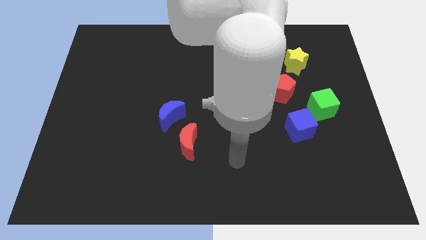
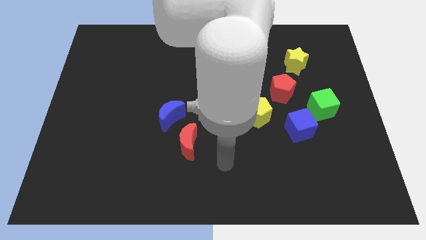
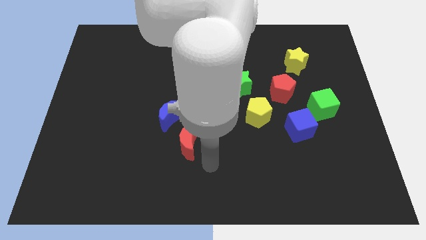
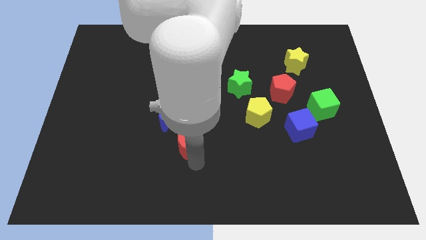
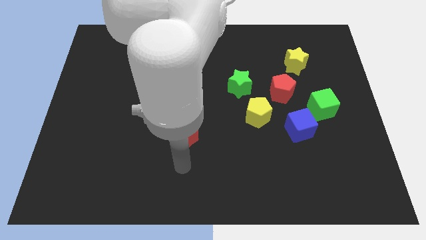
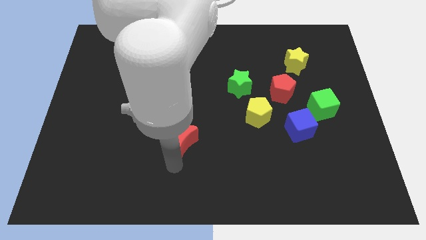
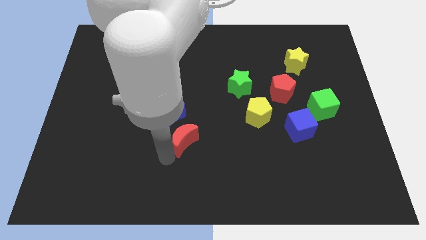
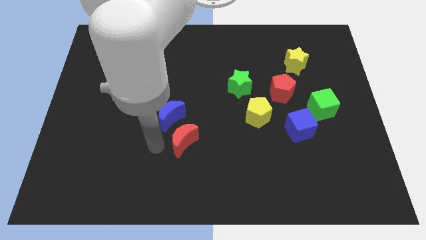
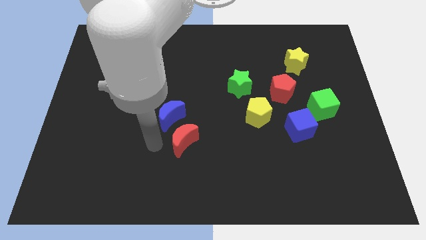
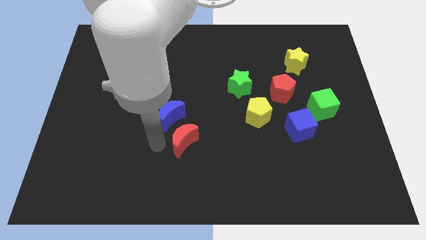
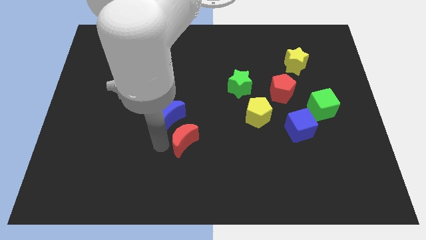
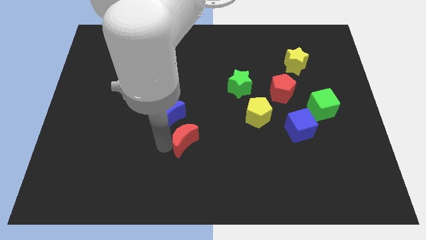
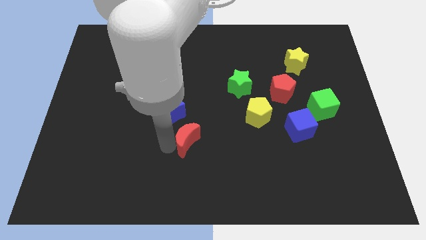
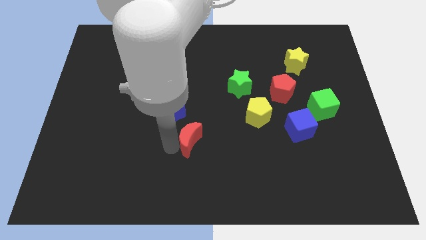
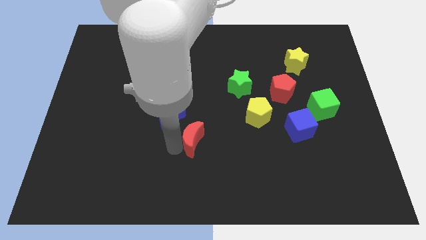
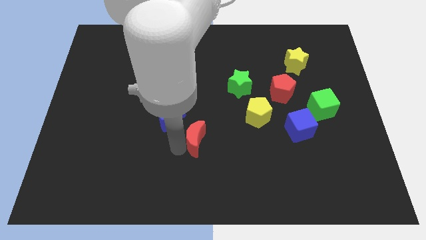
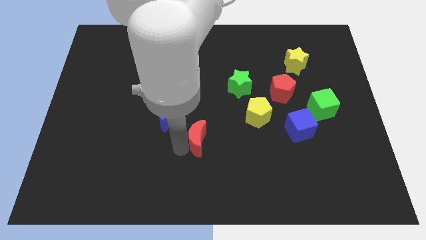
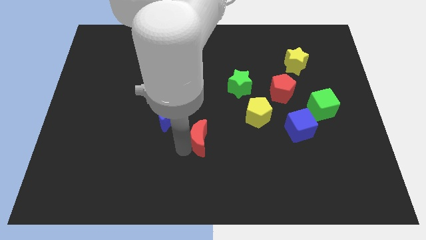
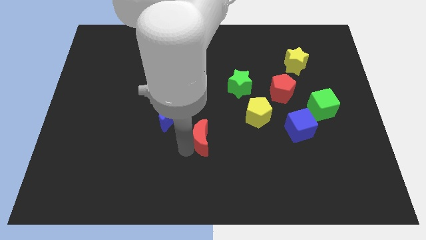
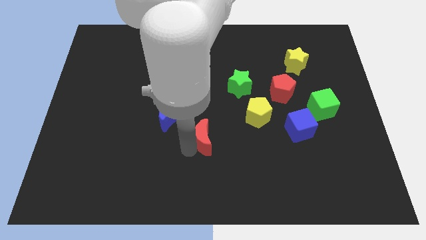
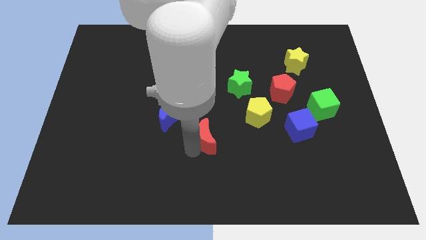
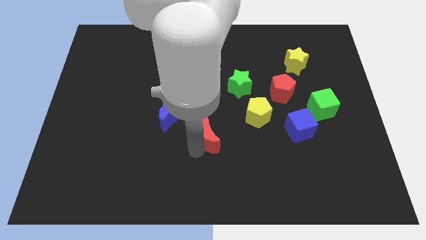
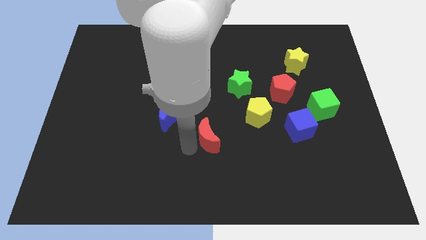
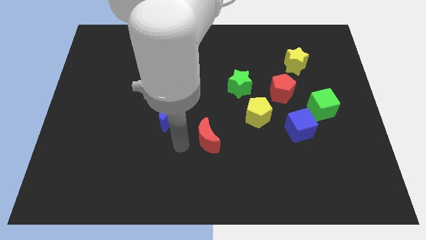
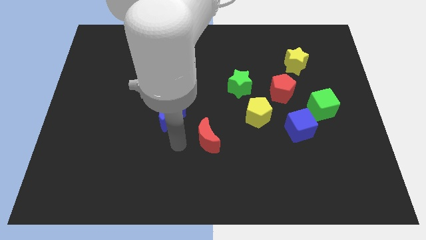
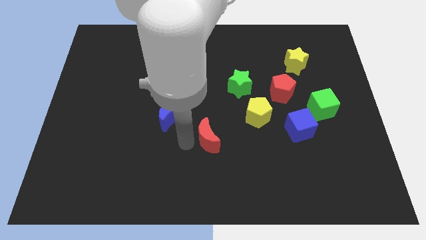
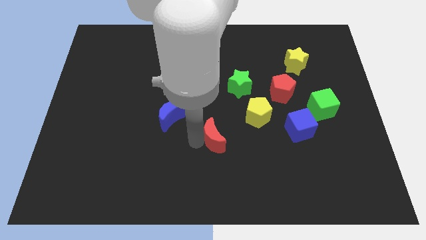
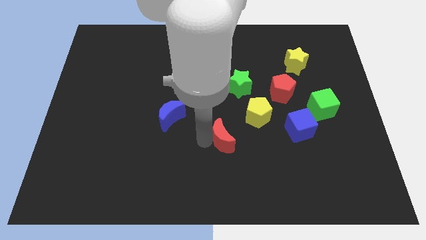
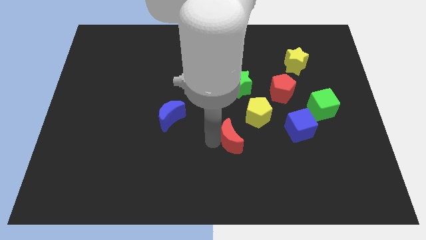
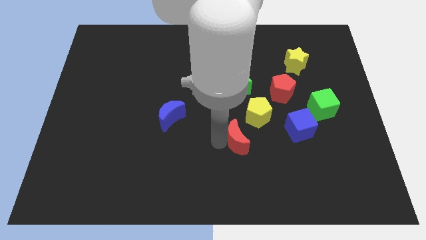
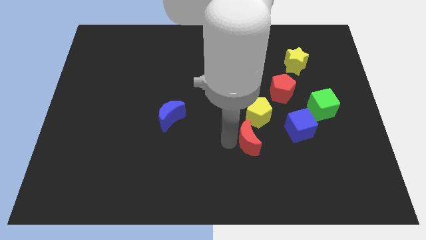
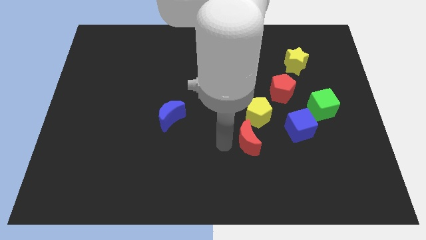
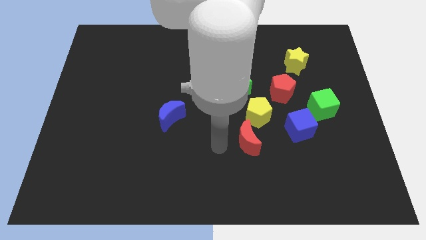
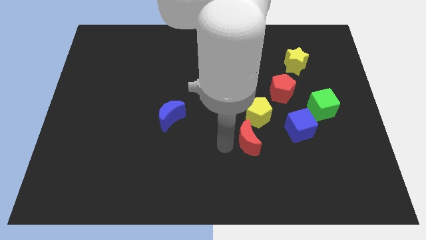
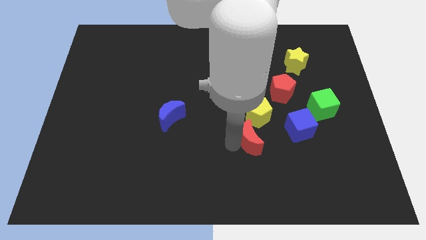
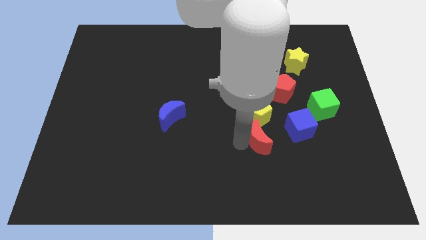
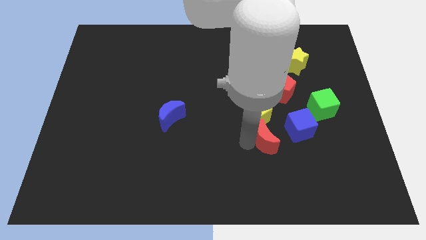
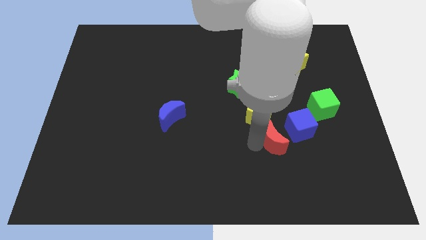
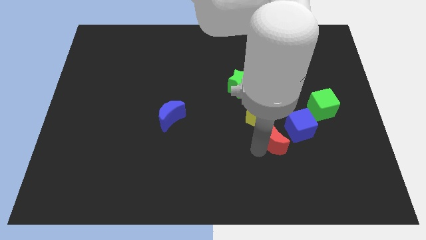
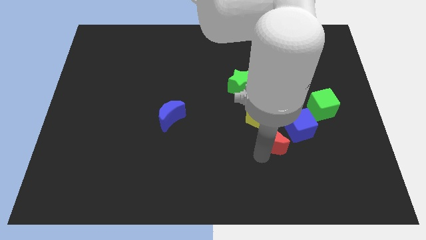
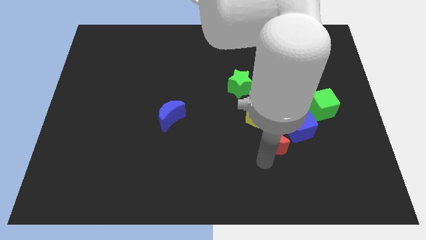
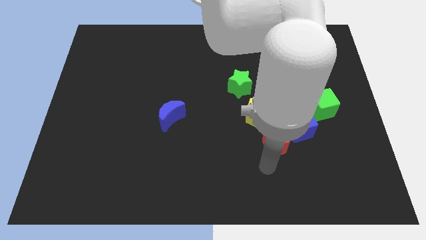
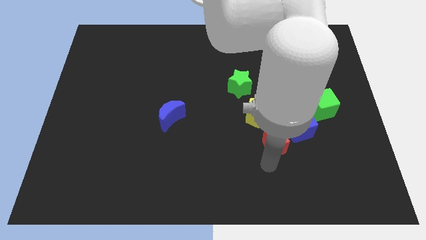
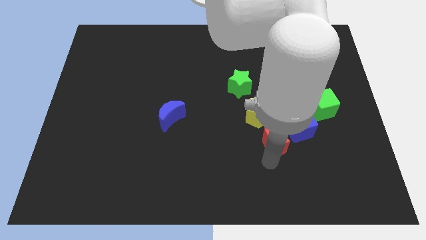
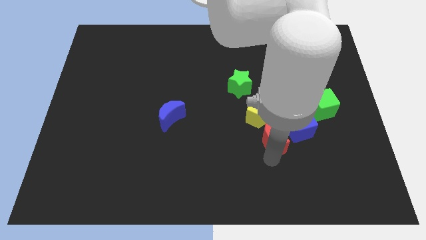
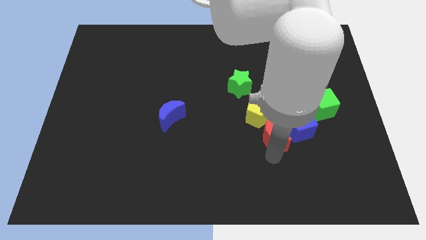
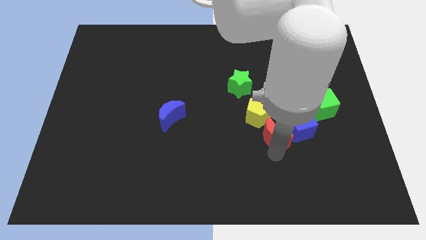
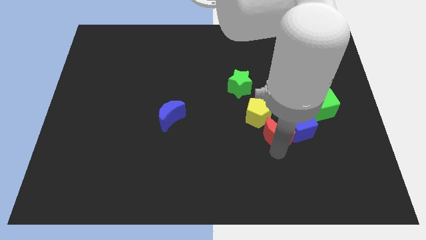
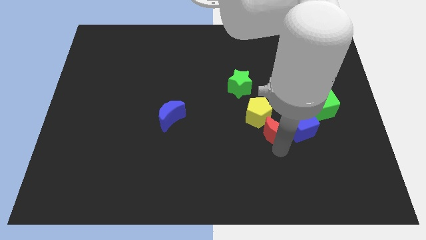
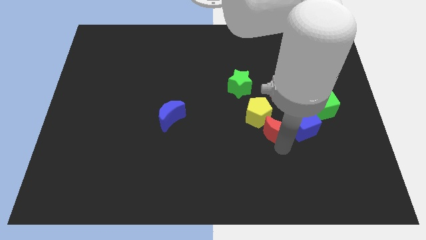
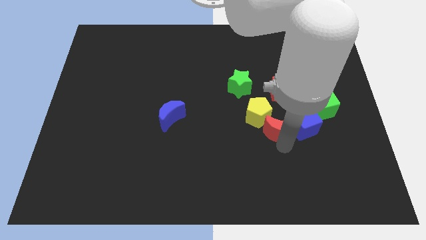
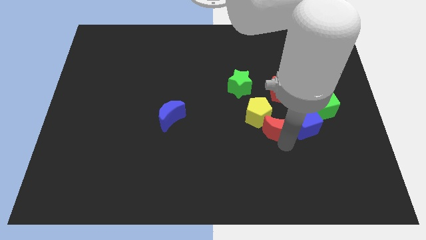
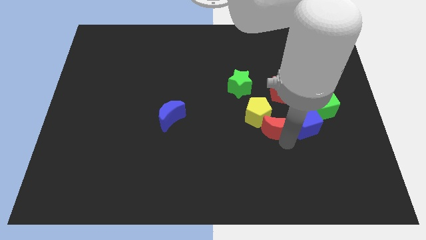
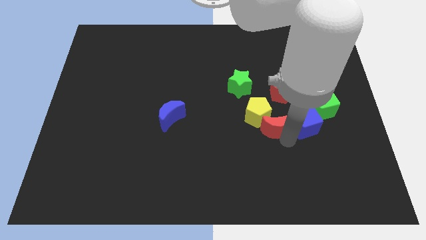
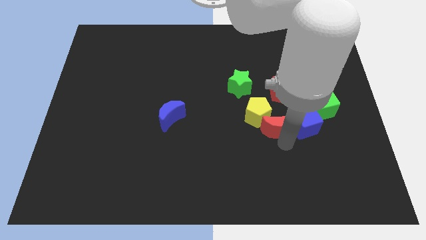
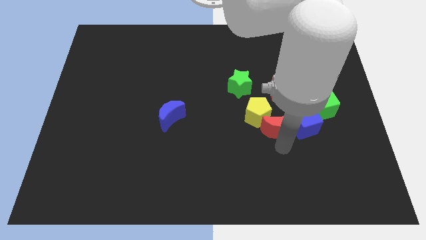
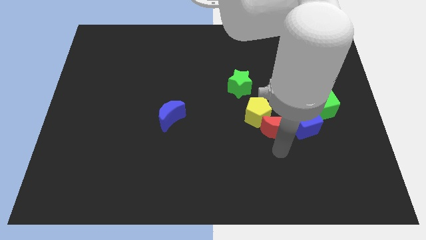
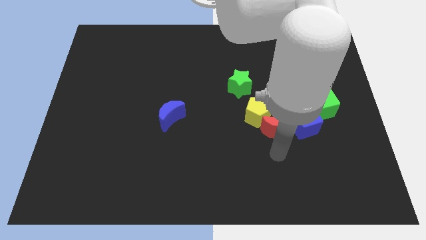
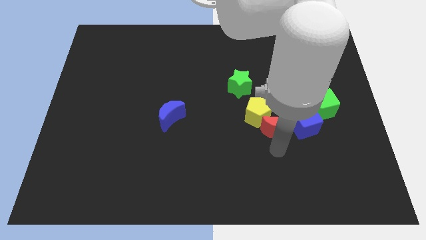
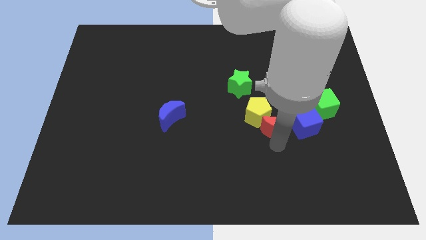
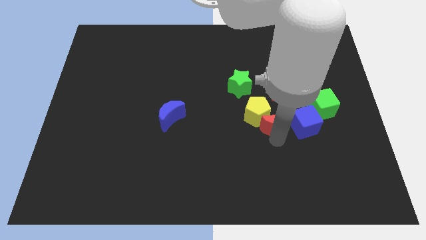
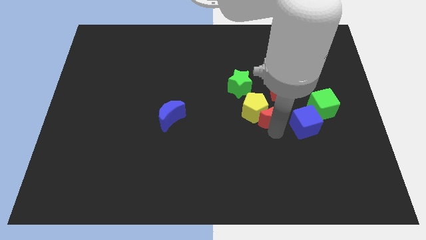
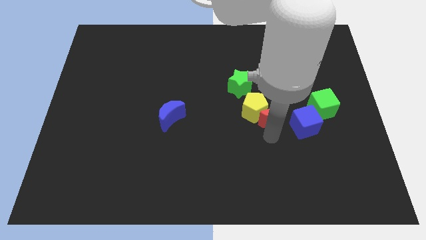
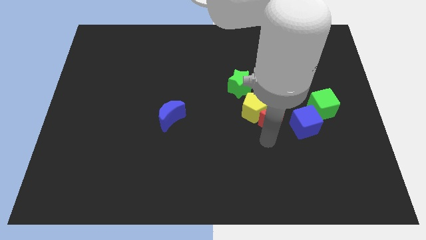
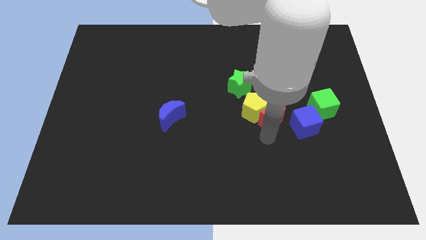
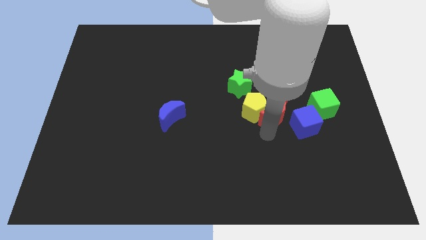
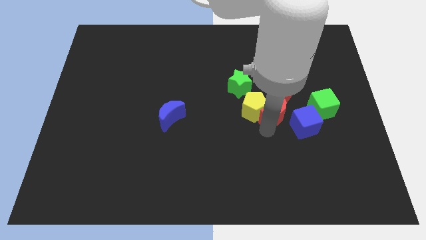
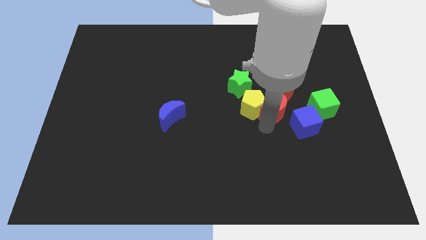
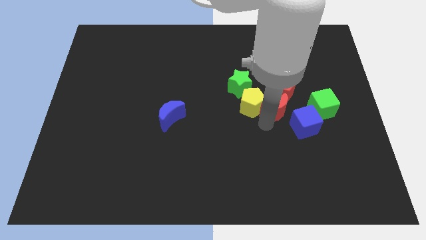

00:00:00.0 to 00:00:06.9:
slide the red moon towards the red pentagon
